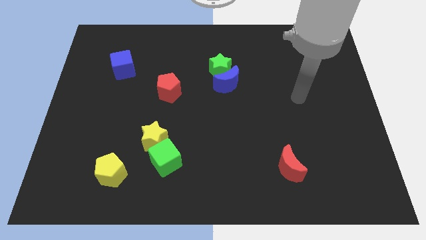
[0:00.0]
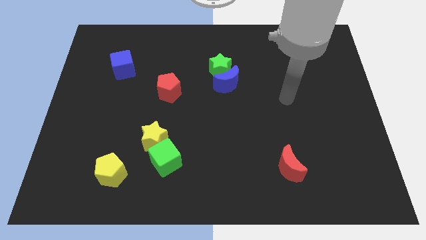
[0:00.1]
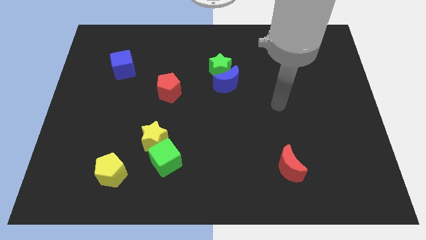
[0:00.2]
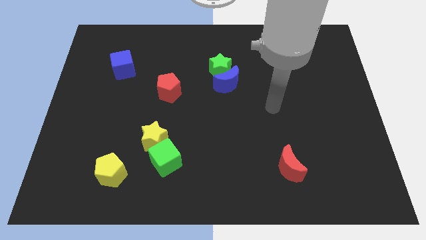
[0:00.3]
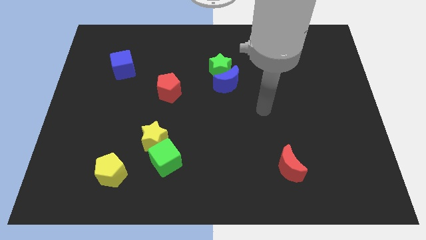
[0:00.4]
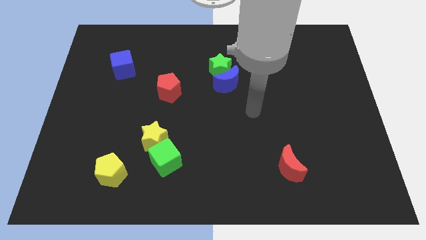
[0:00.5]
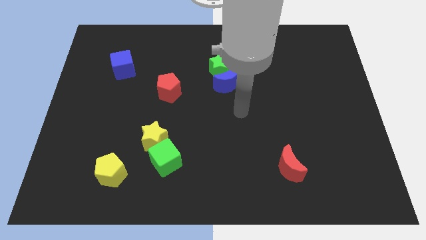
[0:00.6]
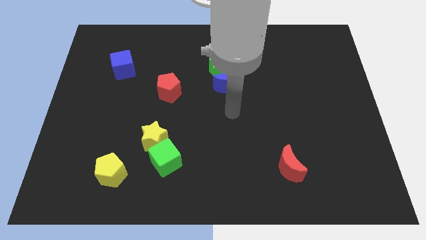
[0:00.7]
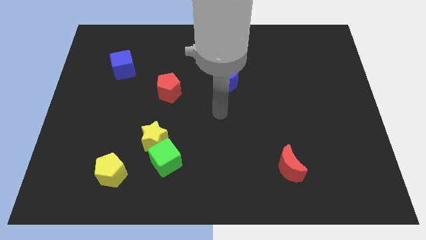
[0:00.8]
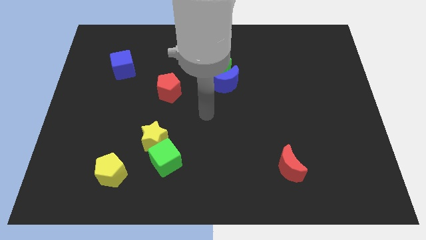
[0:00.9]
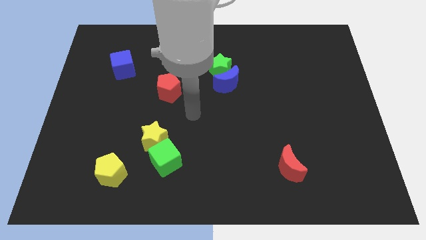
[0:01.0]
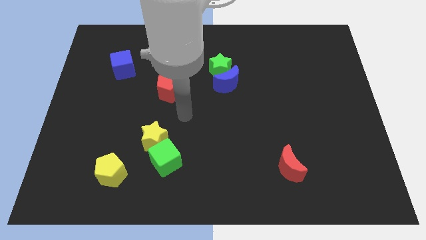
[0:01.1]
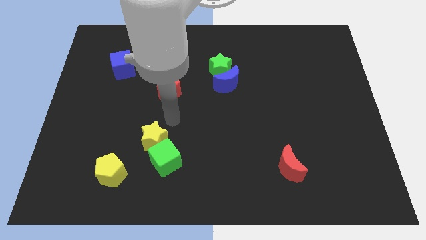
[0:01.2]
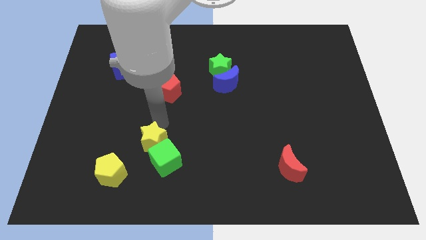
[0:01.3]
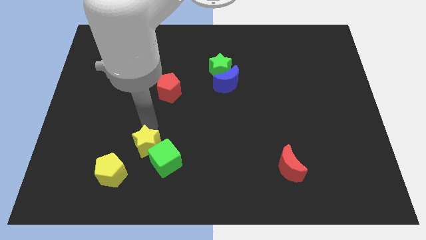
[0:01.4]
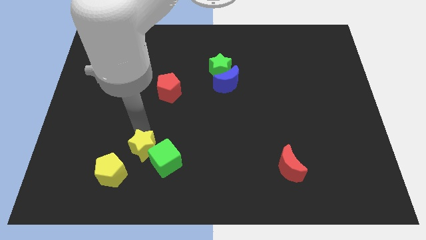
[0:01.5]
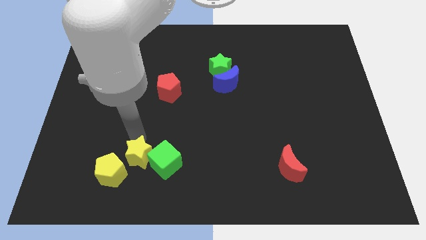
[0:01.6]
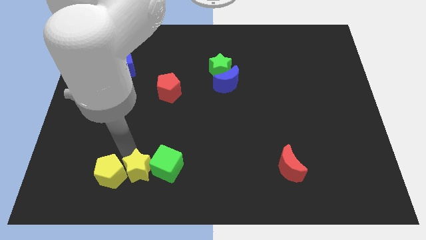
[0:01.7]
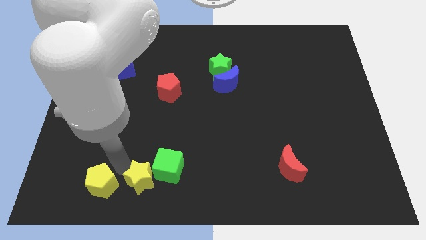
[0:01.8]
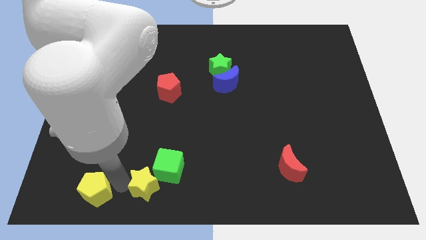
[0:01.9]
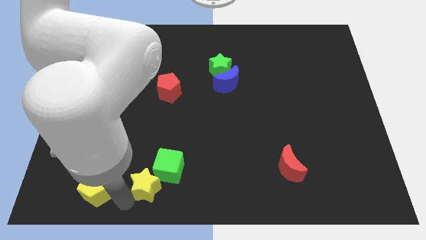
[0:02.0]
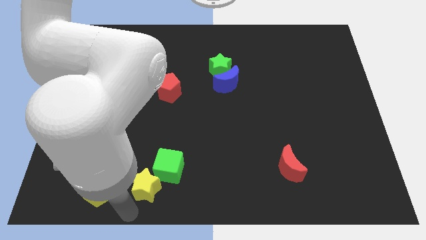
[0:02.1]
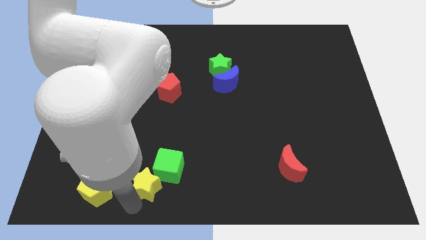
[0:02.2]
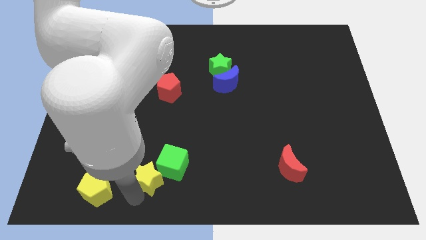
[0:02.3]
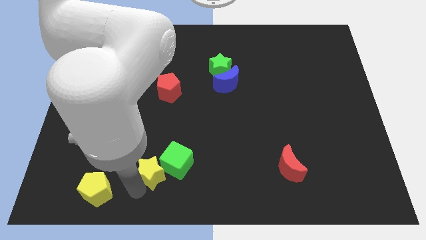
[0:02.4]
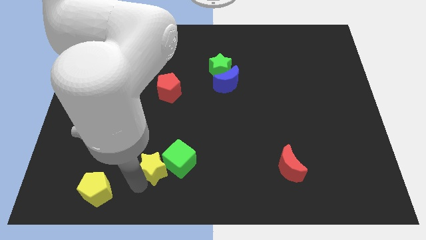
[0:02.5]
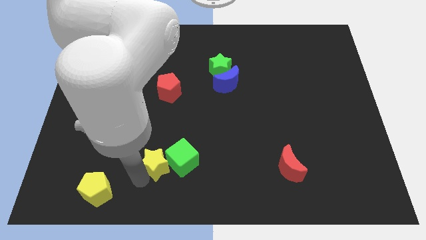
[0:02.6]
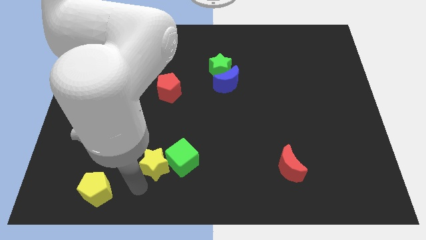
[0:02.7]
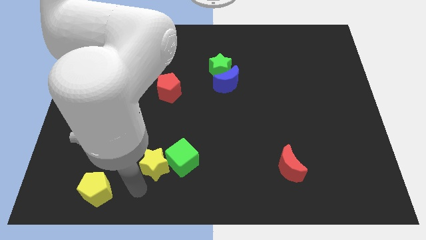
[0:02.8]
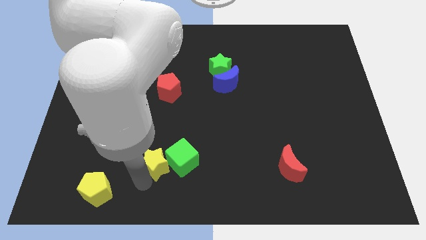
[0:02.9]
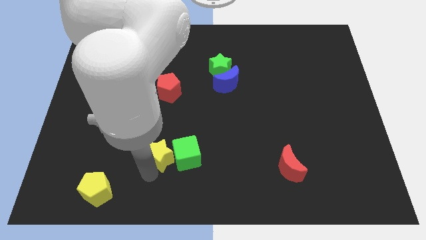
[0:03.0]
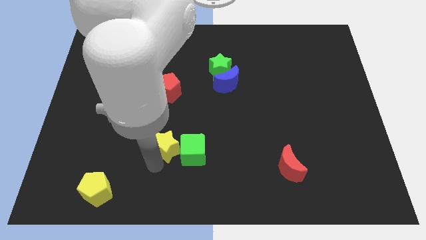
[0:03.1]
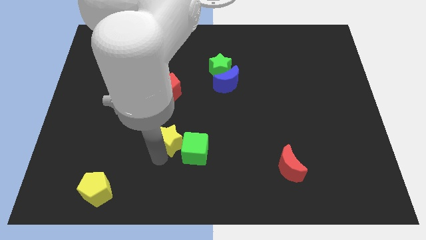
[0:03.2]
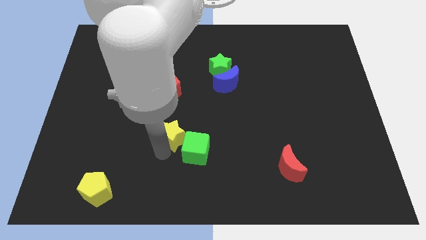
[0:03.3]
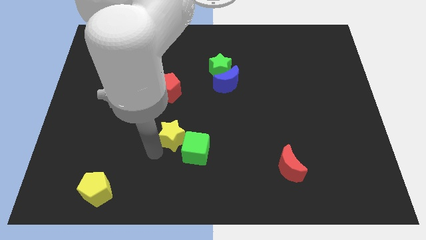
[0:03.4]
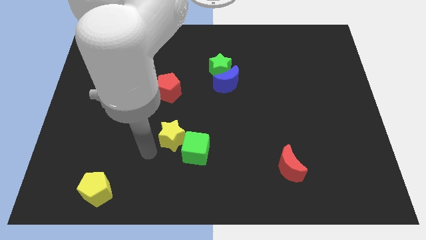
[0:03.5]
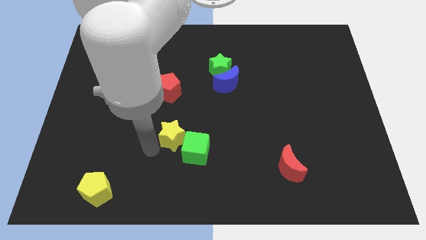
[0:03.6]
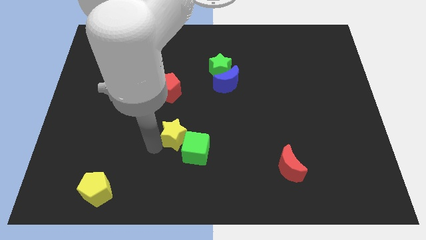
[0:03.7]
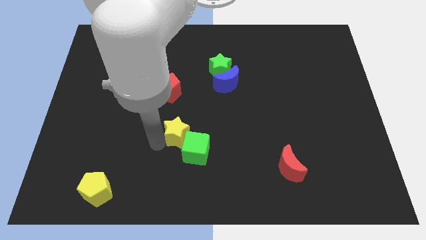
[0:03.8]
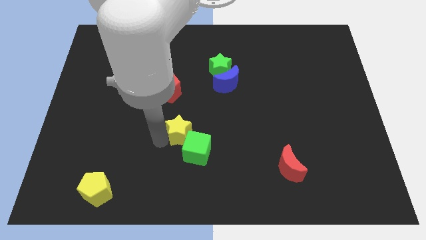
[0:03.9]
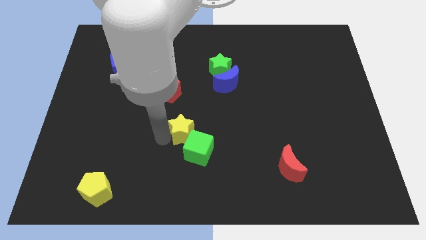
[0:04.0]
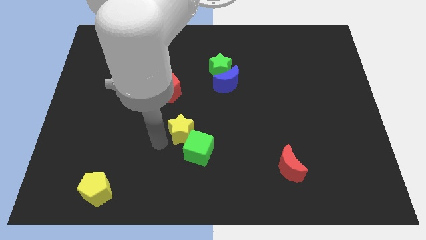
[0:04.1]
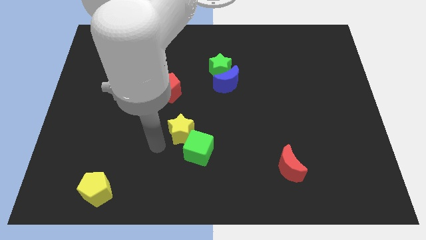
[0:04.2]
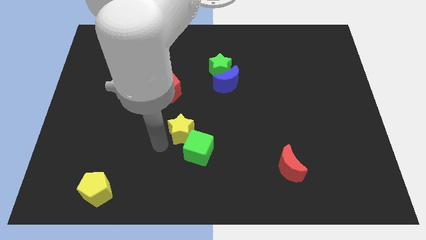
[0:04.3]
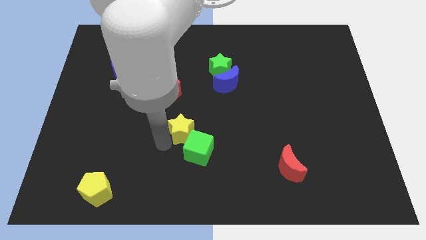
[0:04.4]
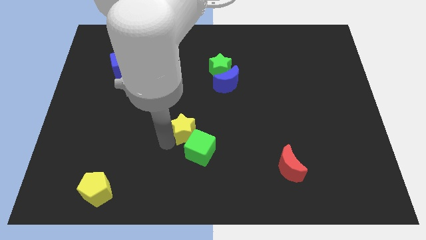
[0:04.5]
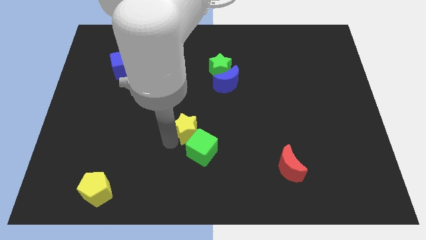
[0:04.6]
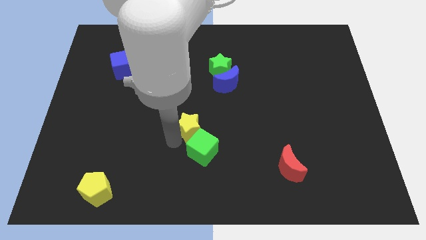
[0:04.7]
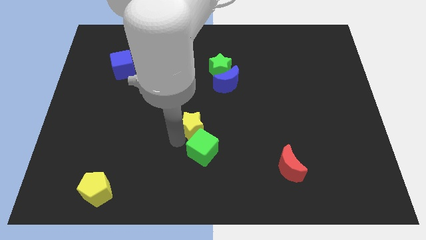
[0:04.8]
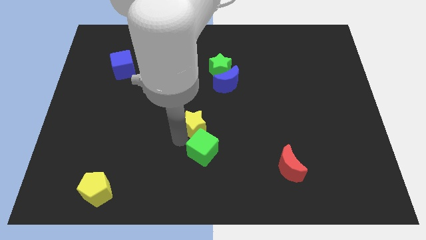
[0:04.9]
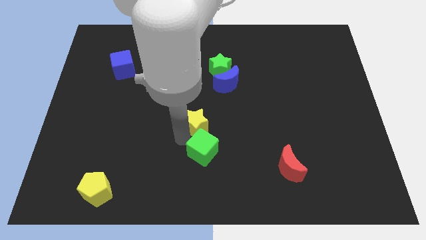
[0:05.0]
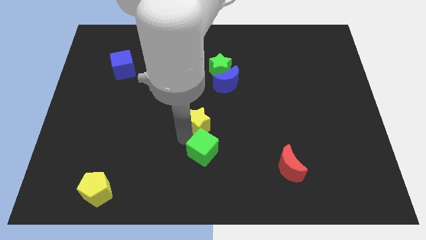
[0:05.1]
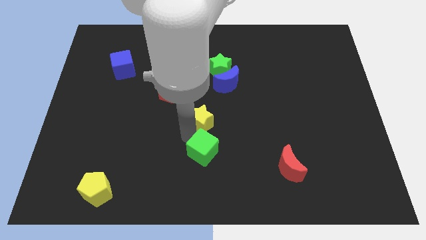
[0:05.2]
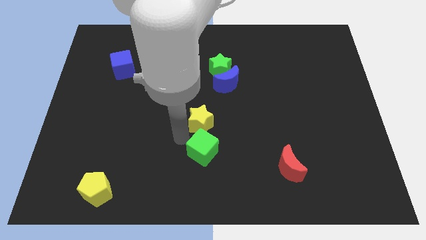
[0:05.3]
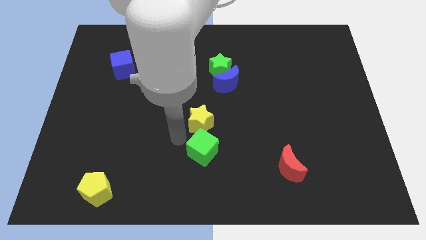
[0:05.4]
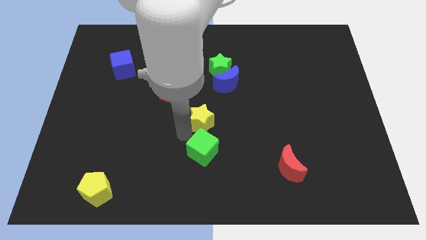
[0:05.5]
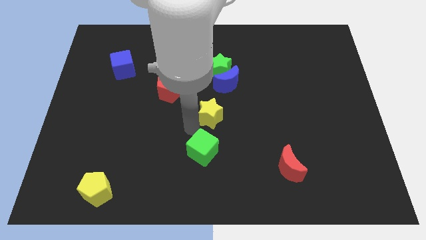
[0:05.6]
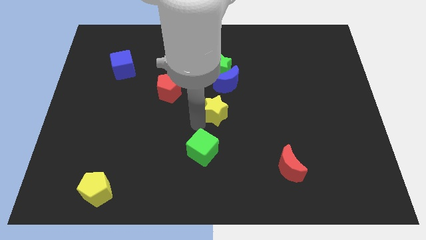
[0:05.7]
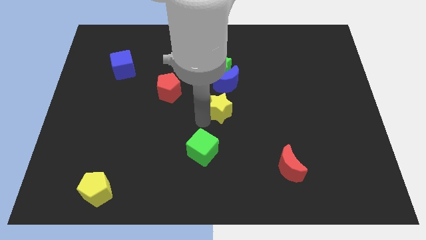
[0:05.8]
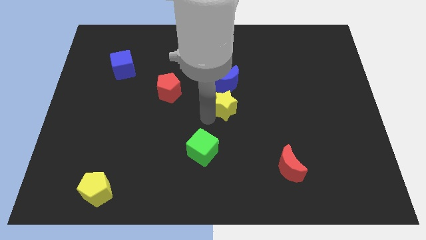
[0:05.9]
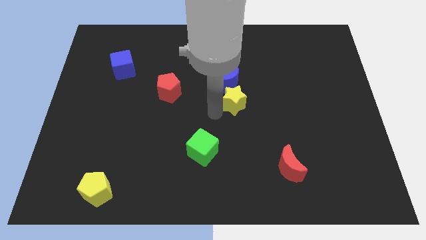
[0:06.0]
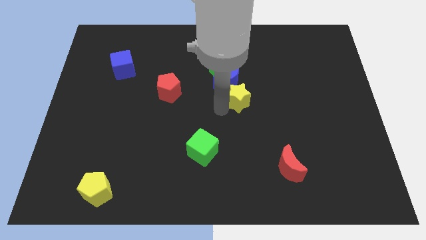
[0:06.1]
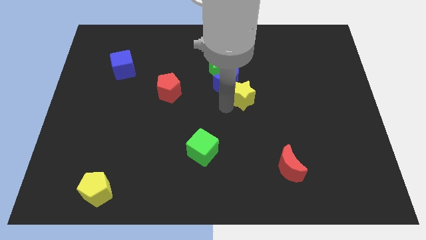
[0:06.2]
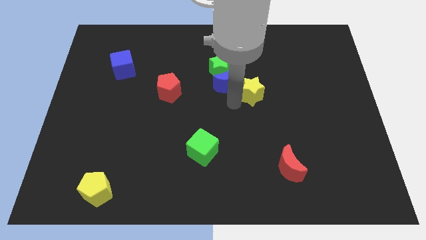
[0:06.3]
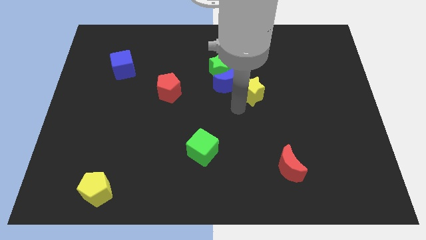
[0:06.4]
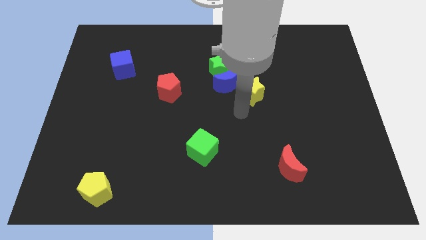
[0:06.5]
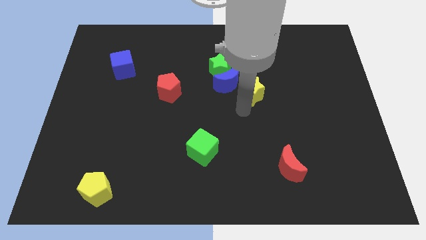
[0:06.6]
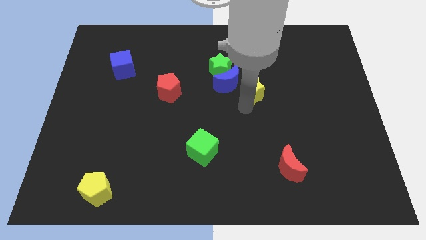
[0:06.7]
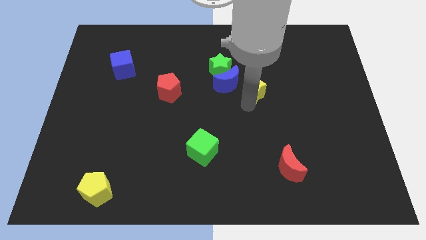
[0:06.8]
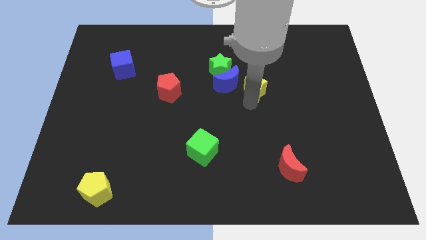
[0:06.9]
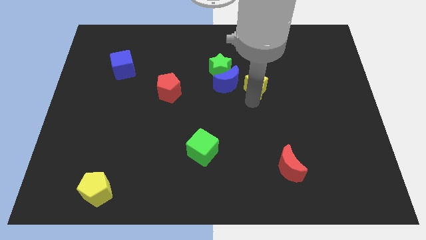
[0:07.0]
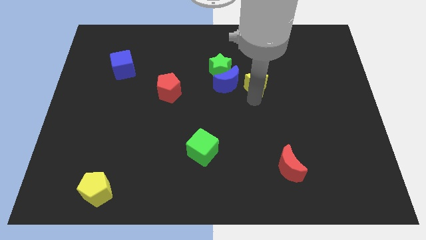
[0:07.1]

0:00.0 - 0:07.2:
move the yellow star just right of the green star
